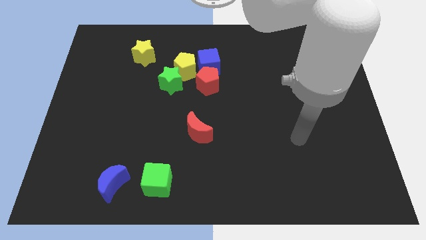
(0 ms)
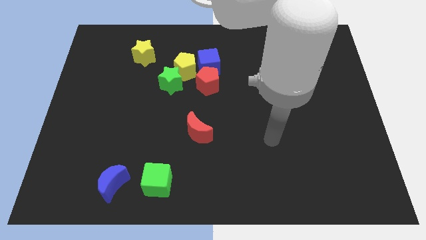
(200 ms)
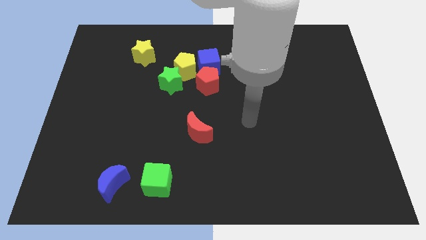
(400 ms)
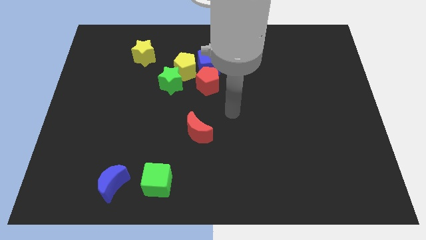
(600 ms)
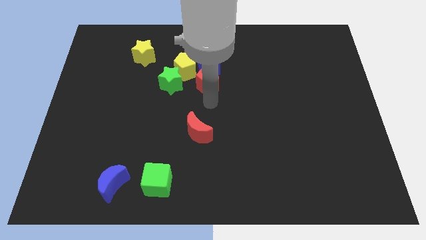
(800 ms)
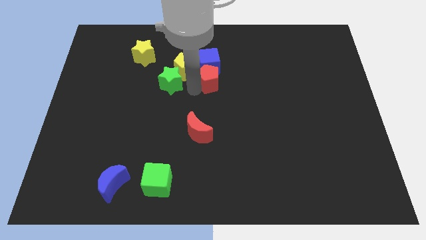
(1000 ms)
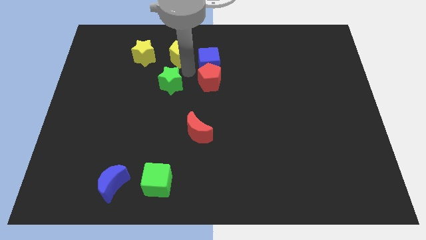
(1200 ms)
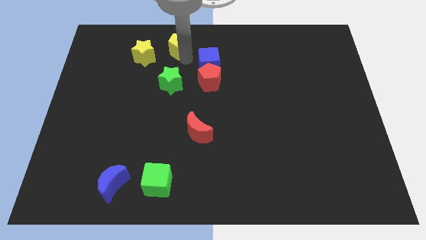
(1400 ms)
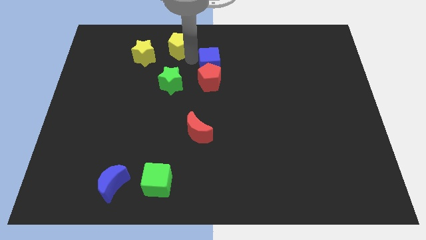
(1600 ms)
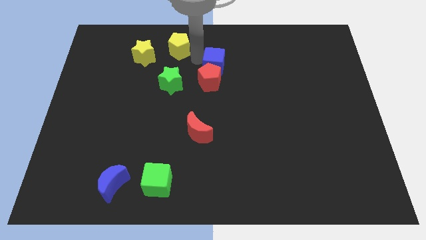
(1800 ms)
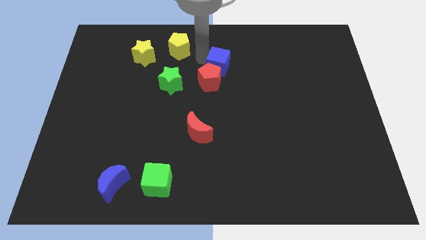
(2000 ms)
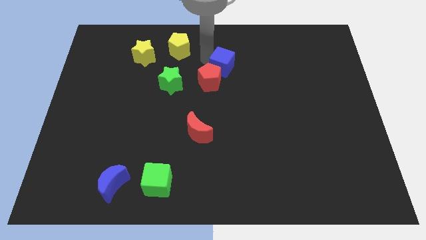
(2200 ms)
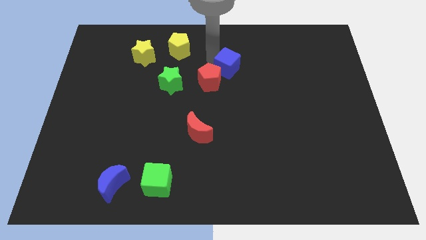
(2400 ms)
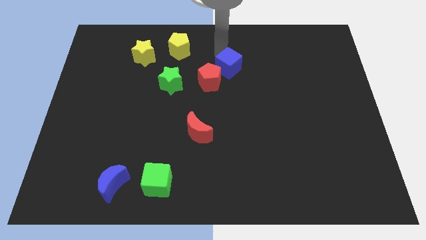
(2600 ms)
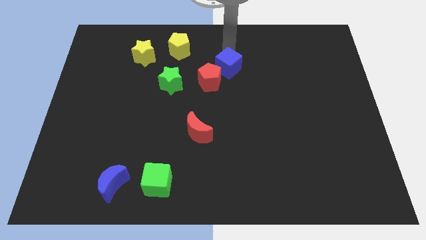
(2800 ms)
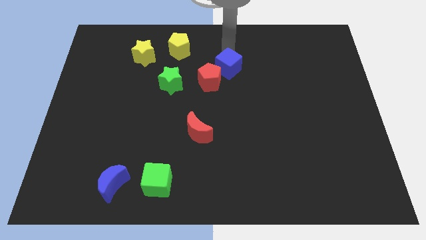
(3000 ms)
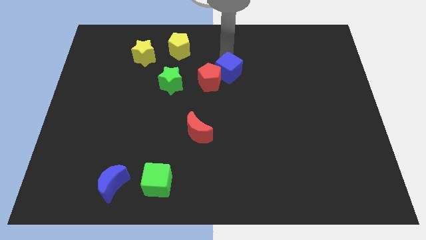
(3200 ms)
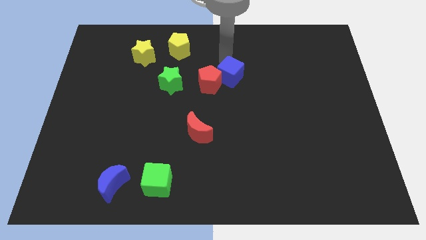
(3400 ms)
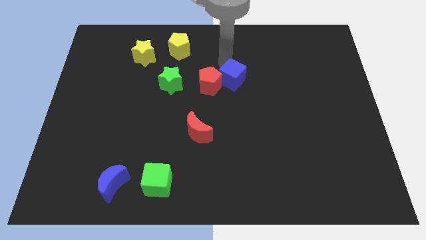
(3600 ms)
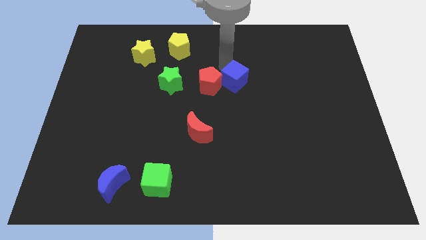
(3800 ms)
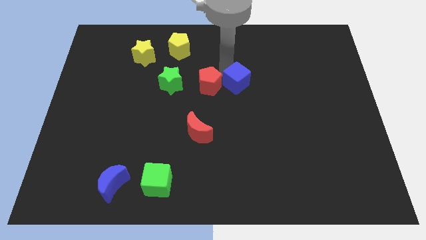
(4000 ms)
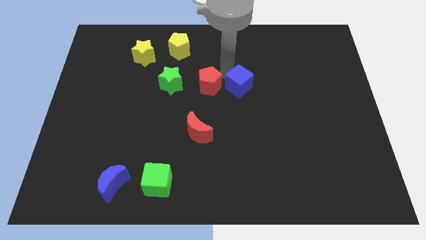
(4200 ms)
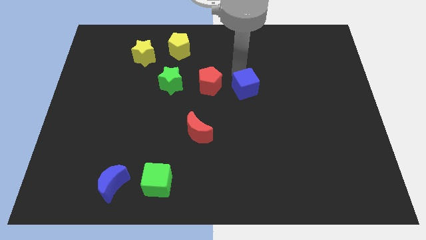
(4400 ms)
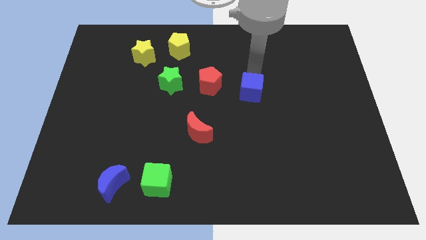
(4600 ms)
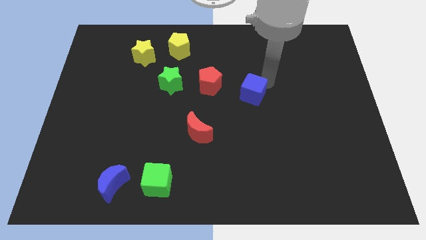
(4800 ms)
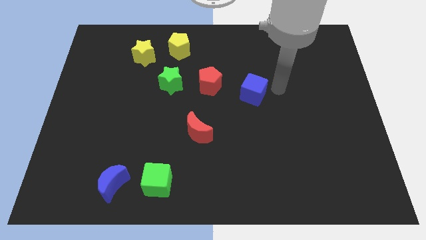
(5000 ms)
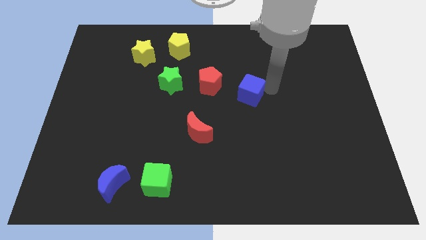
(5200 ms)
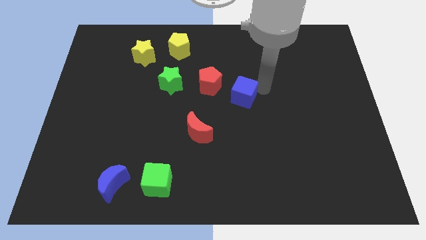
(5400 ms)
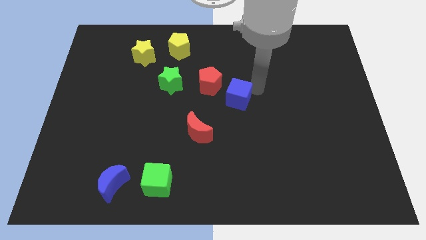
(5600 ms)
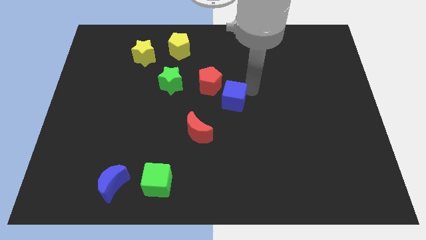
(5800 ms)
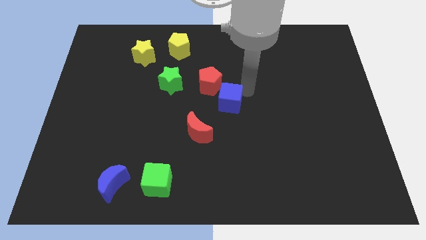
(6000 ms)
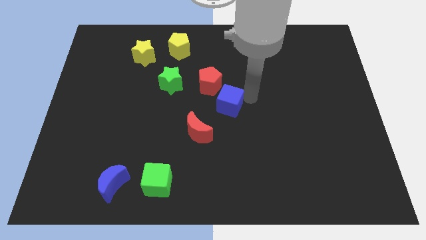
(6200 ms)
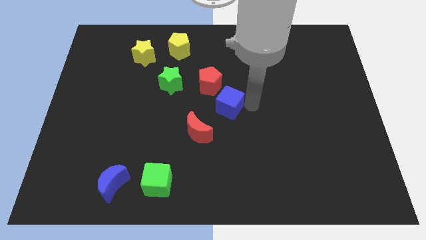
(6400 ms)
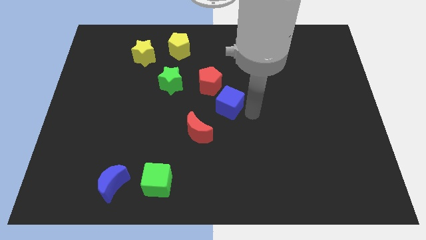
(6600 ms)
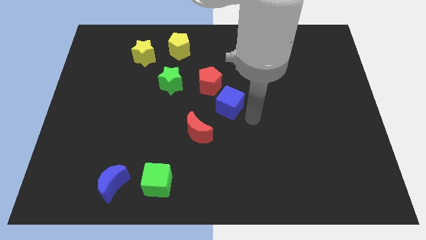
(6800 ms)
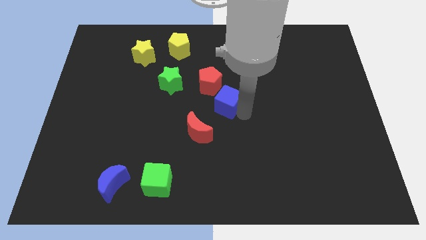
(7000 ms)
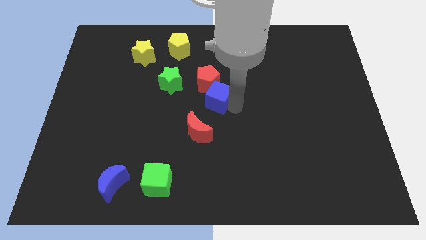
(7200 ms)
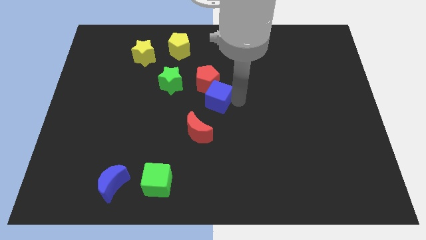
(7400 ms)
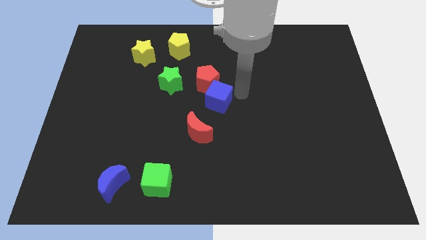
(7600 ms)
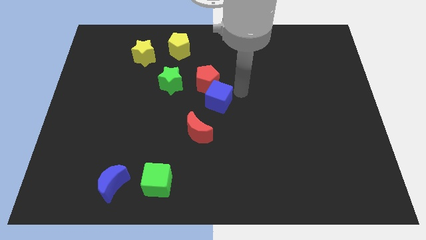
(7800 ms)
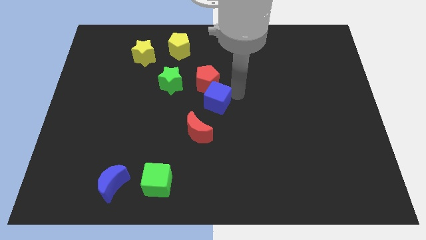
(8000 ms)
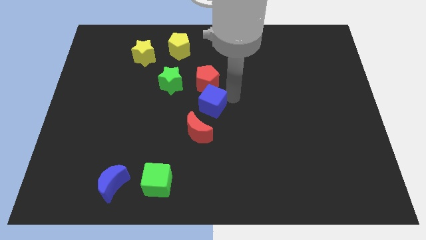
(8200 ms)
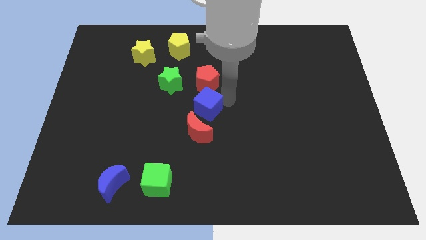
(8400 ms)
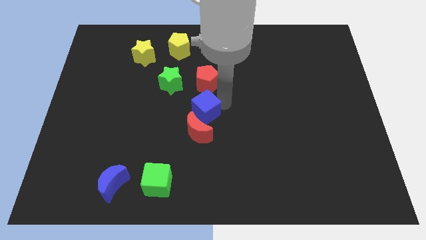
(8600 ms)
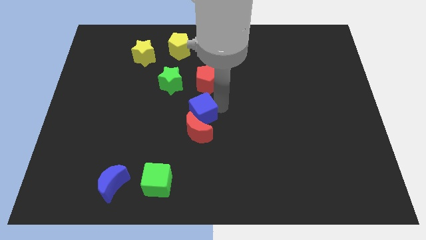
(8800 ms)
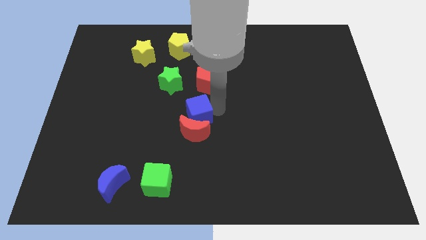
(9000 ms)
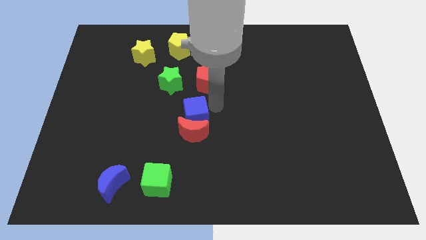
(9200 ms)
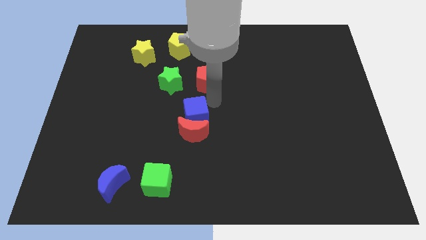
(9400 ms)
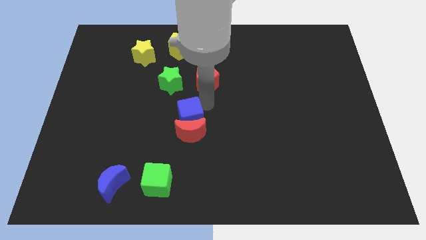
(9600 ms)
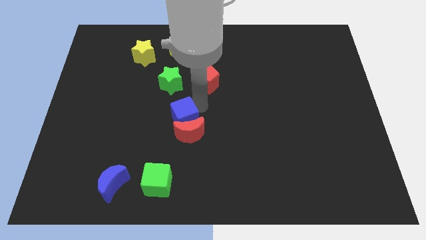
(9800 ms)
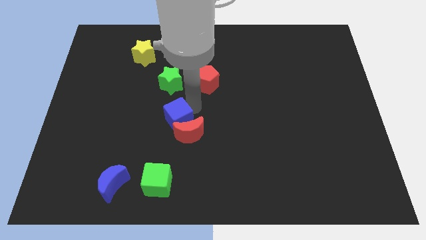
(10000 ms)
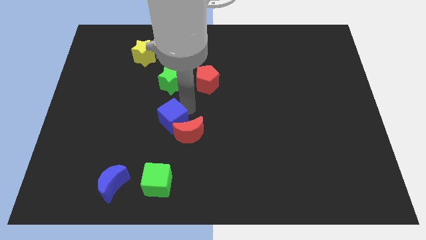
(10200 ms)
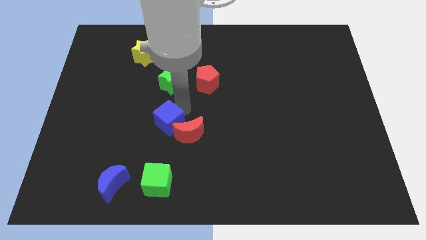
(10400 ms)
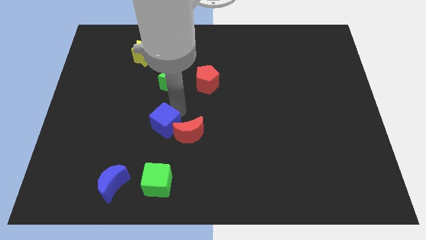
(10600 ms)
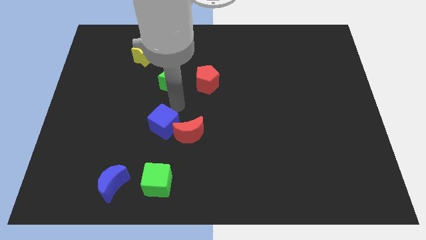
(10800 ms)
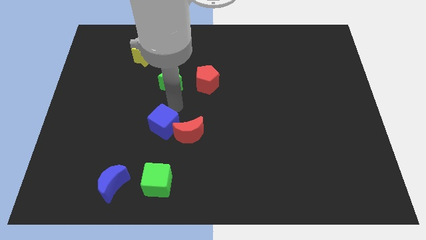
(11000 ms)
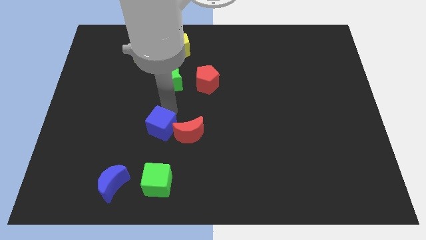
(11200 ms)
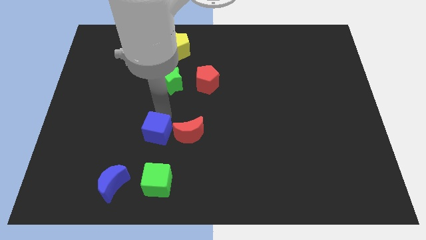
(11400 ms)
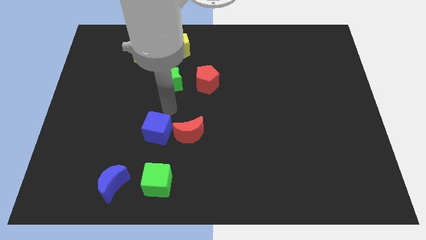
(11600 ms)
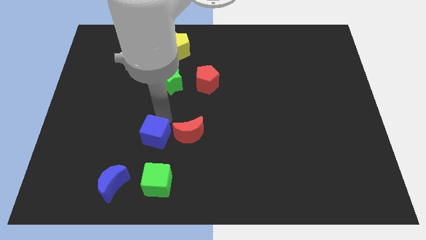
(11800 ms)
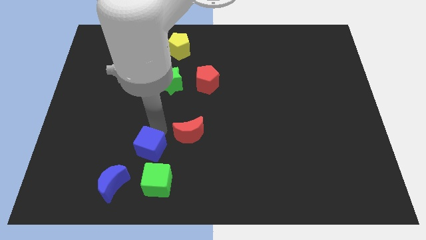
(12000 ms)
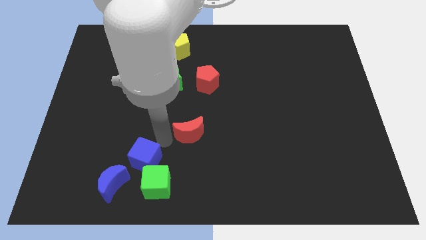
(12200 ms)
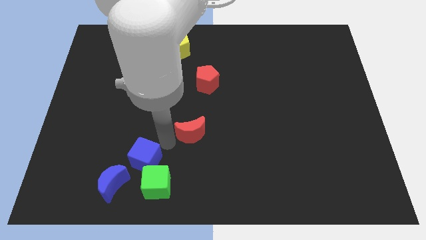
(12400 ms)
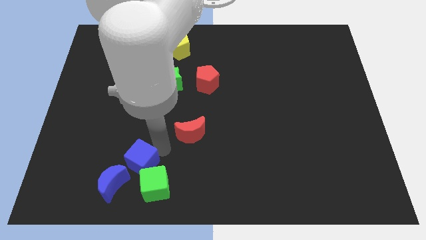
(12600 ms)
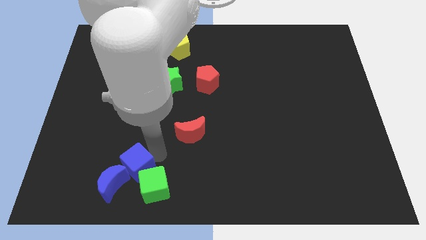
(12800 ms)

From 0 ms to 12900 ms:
push the blue cube next to the blue moon
